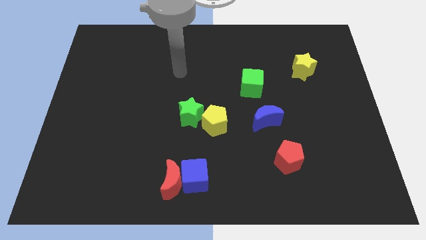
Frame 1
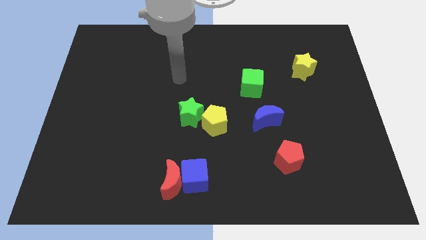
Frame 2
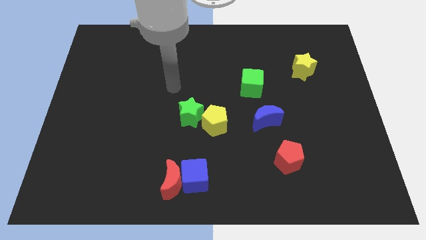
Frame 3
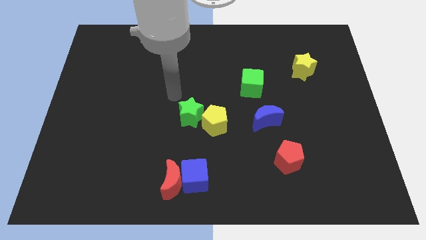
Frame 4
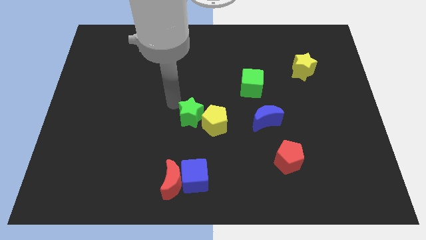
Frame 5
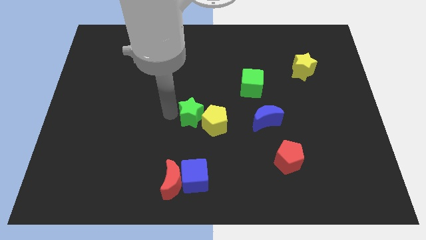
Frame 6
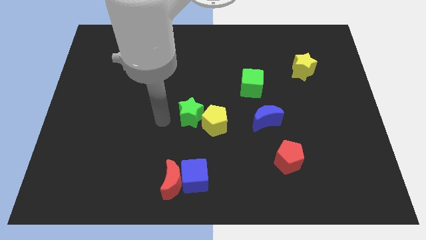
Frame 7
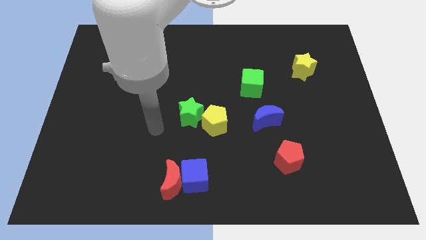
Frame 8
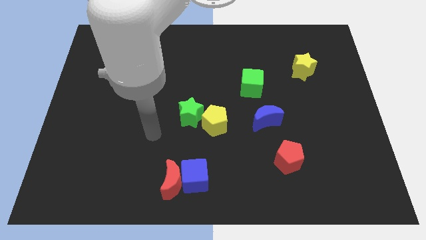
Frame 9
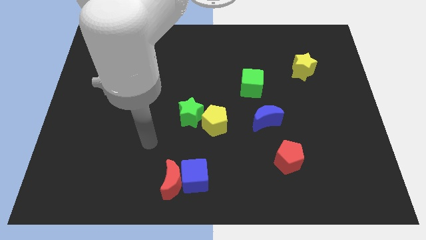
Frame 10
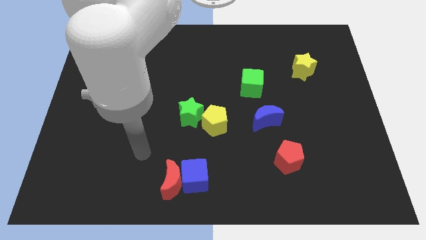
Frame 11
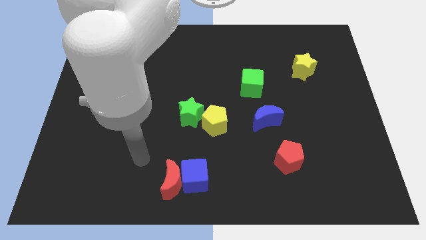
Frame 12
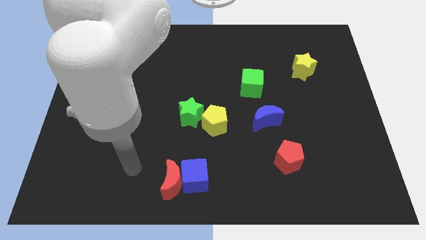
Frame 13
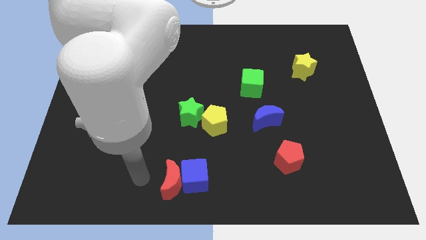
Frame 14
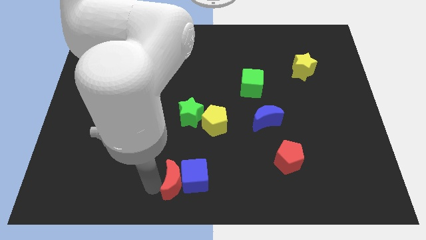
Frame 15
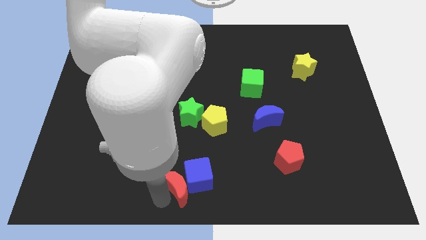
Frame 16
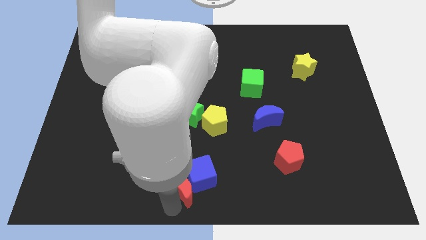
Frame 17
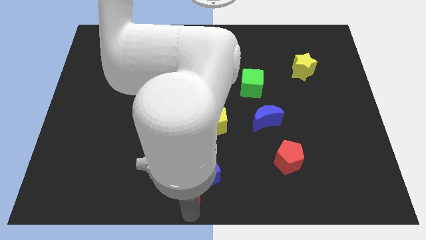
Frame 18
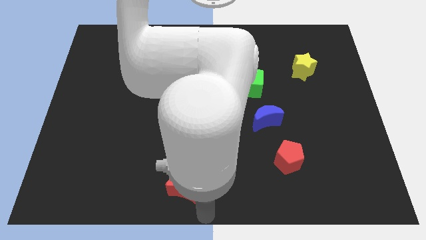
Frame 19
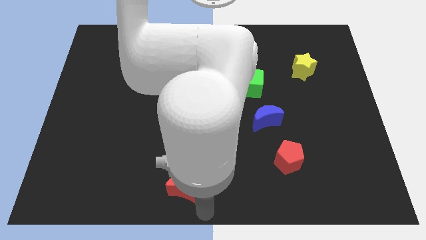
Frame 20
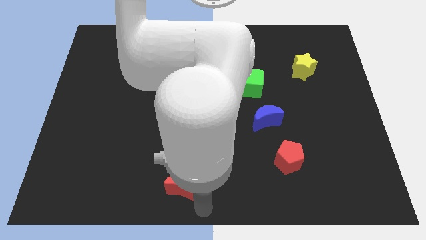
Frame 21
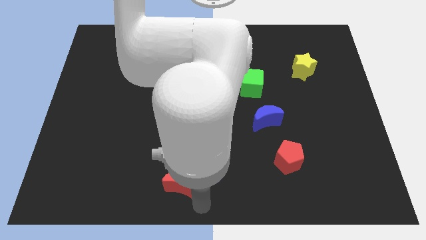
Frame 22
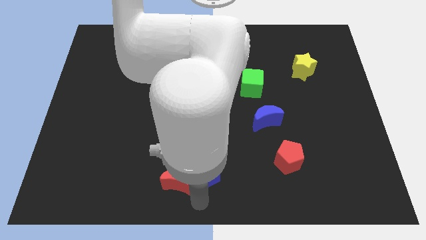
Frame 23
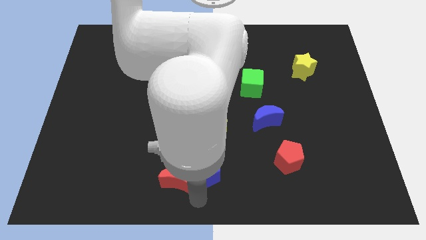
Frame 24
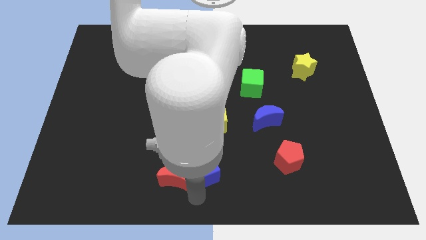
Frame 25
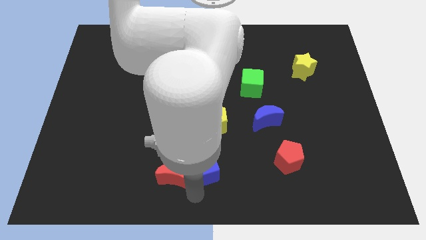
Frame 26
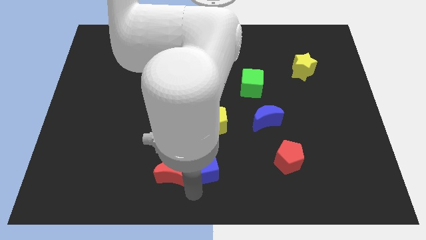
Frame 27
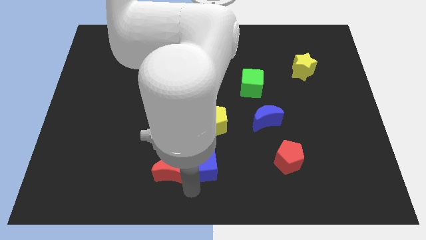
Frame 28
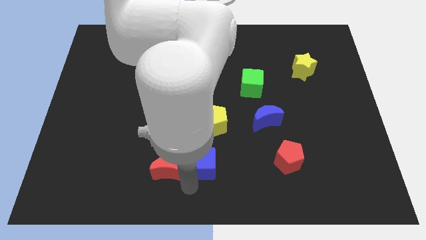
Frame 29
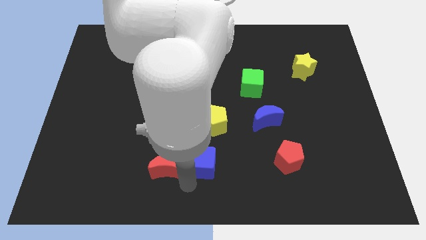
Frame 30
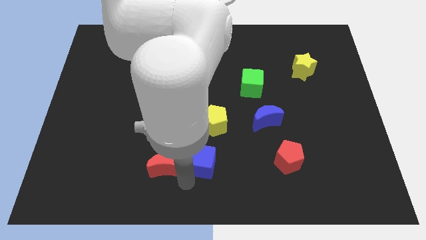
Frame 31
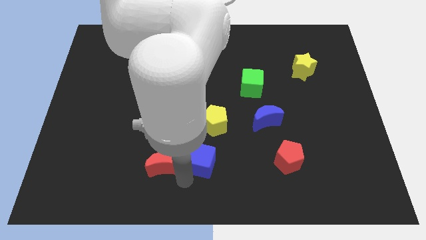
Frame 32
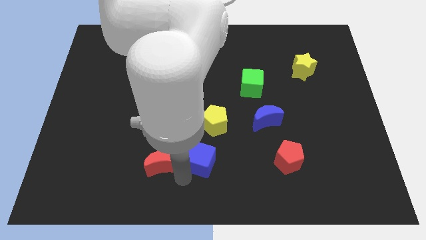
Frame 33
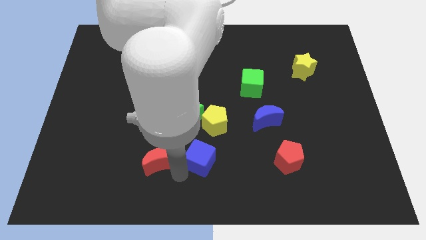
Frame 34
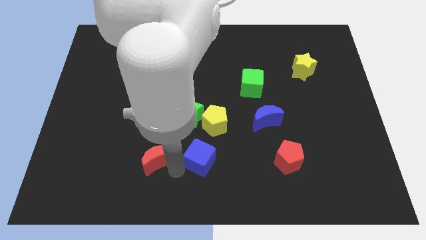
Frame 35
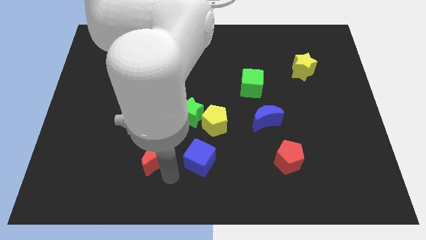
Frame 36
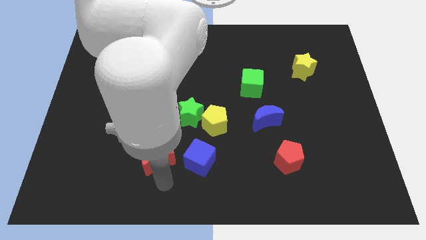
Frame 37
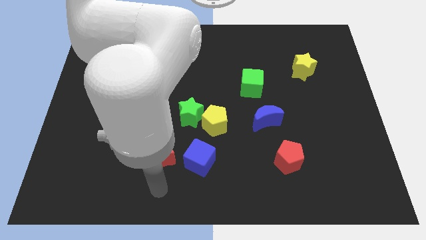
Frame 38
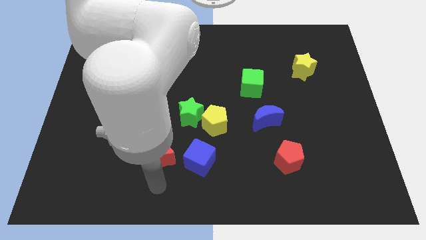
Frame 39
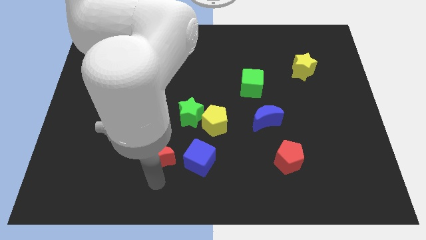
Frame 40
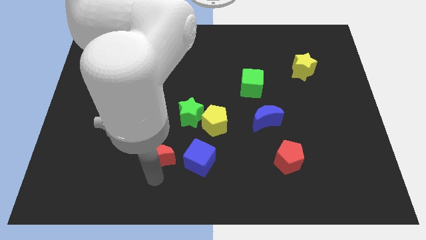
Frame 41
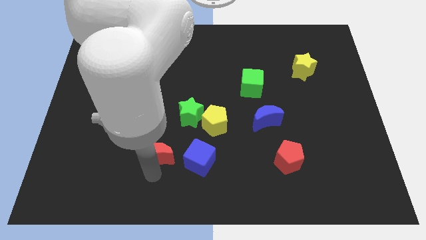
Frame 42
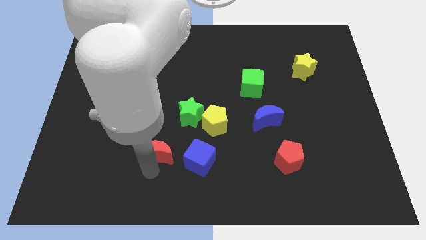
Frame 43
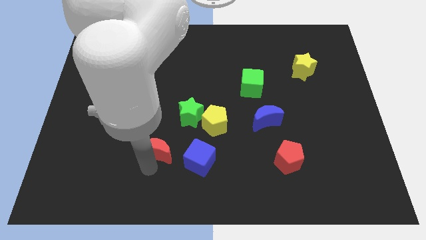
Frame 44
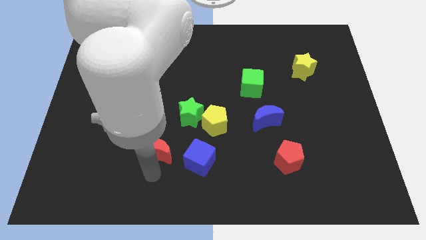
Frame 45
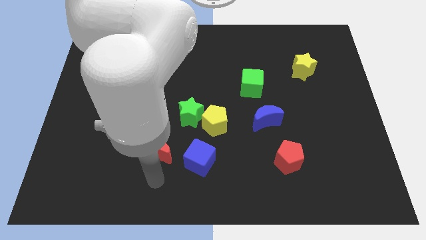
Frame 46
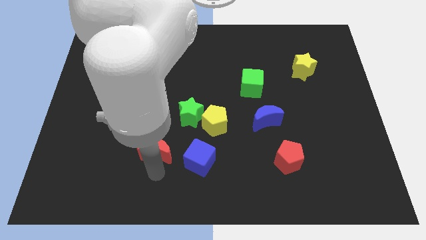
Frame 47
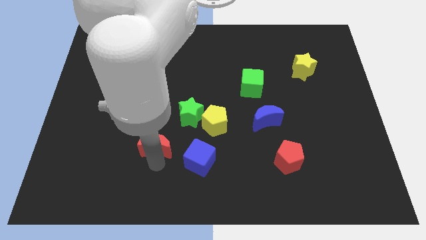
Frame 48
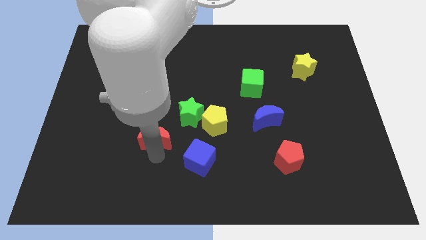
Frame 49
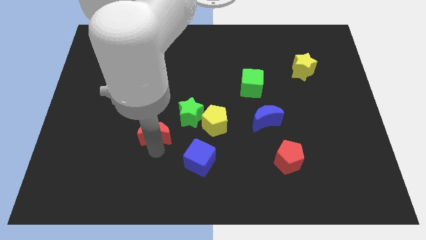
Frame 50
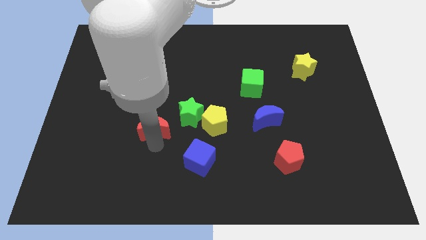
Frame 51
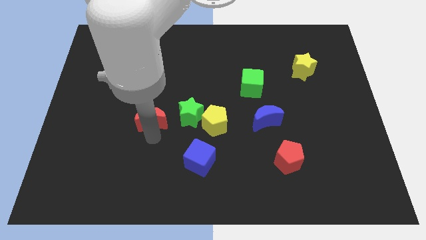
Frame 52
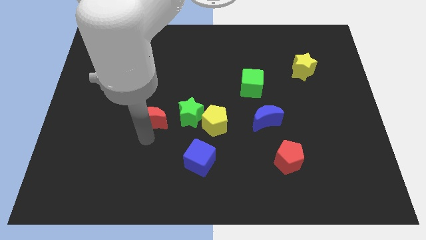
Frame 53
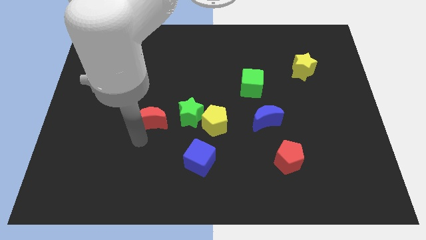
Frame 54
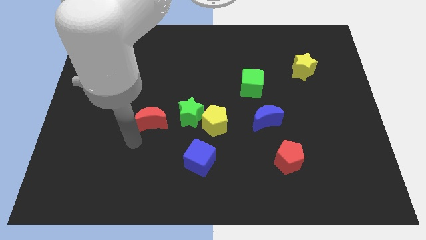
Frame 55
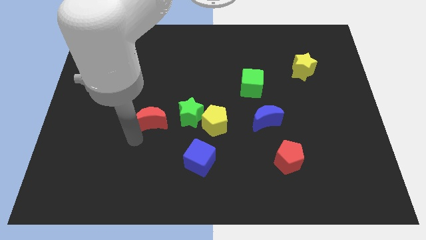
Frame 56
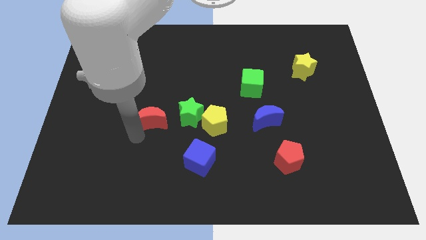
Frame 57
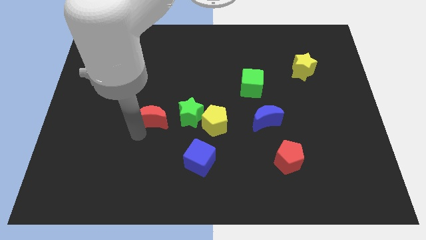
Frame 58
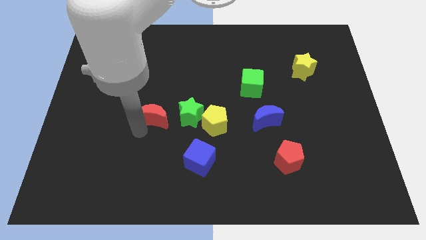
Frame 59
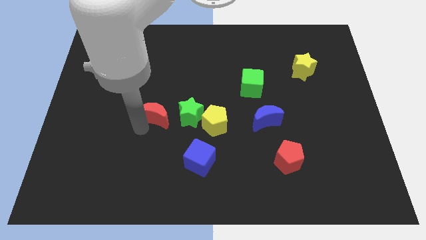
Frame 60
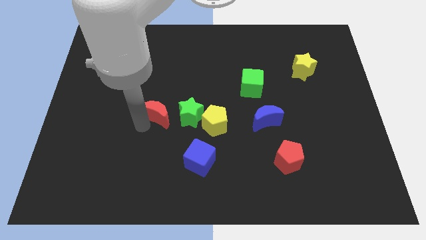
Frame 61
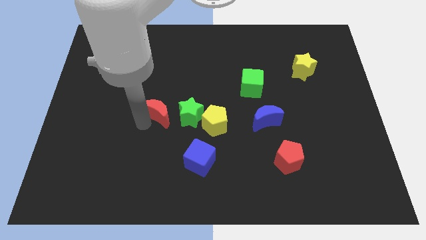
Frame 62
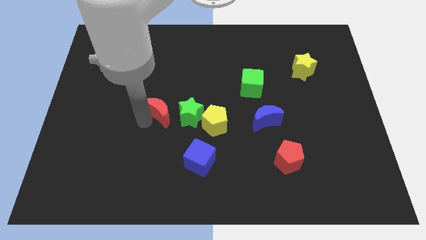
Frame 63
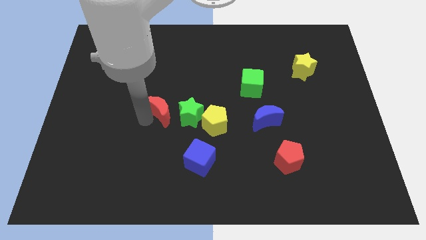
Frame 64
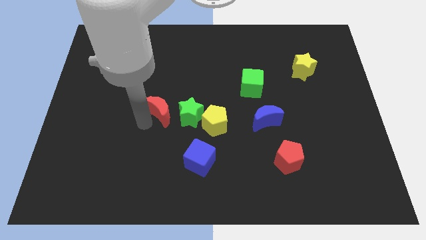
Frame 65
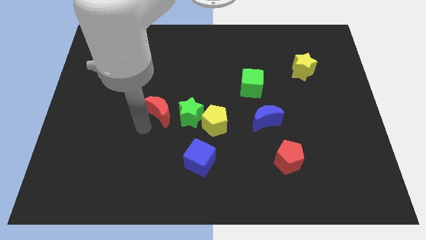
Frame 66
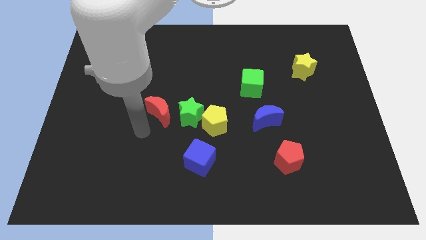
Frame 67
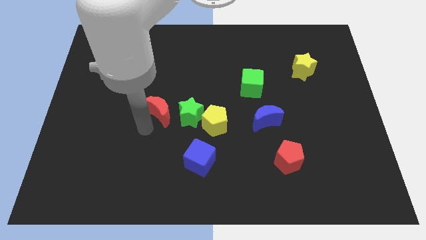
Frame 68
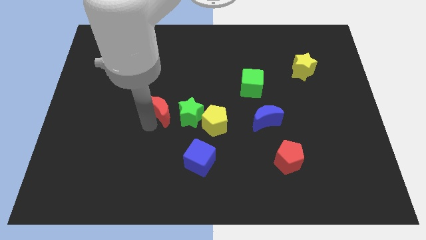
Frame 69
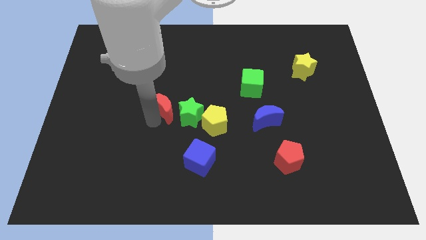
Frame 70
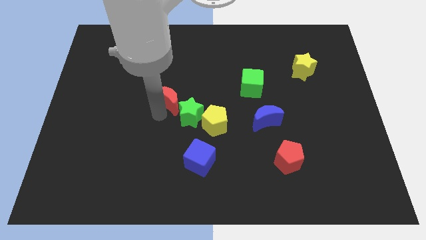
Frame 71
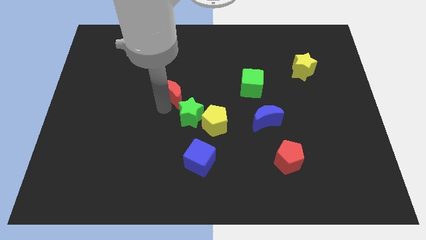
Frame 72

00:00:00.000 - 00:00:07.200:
push the red moon to the top of the green star
